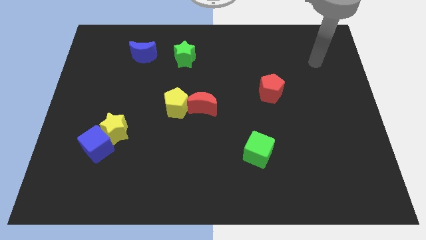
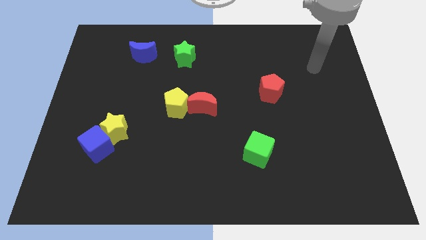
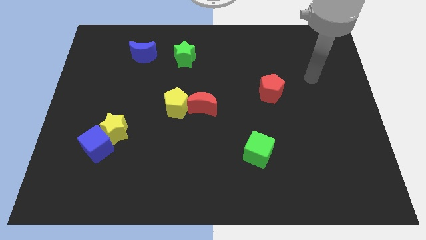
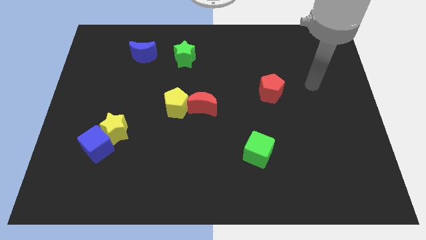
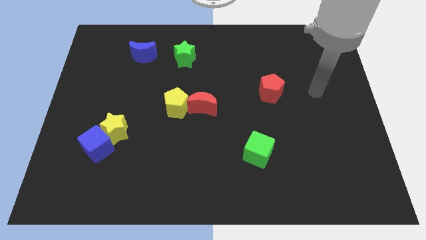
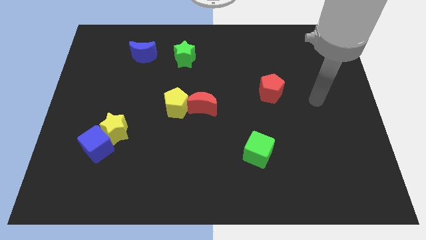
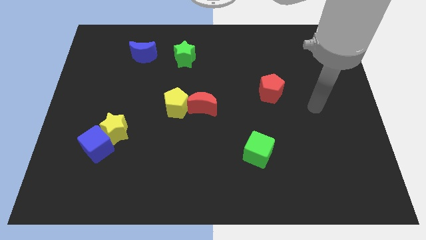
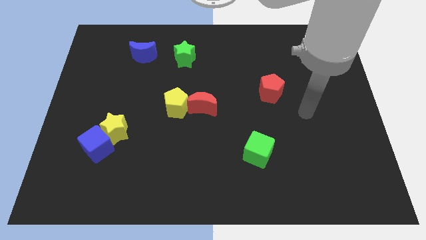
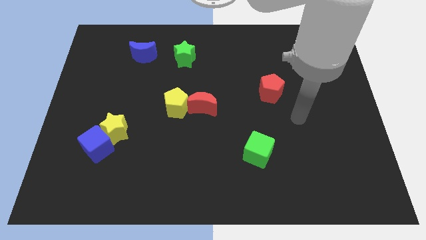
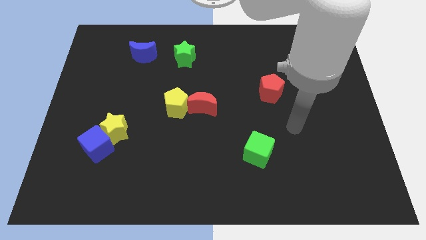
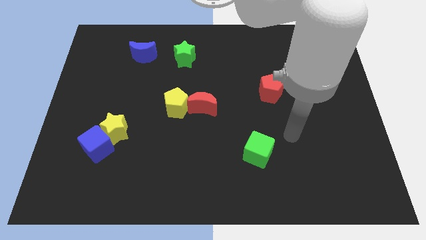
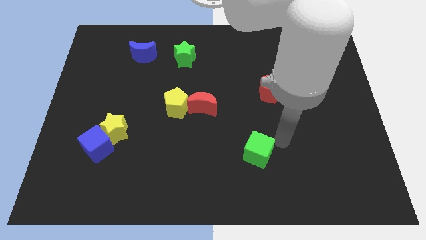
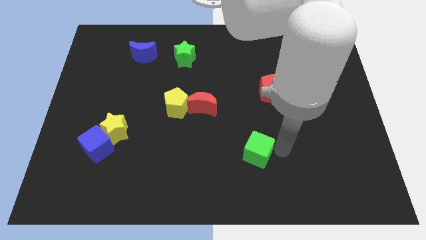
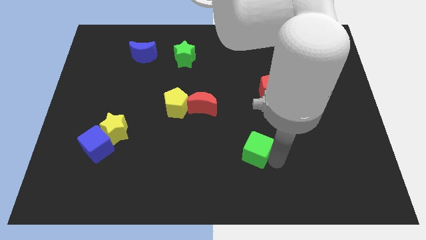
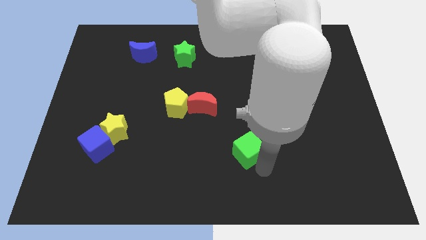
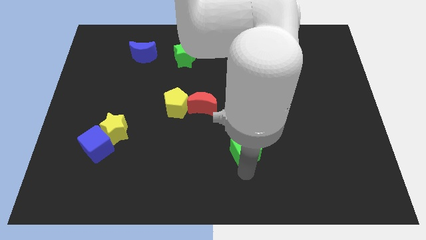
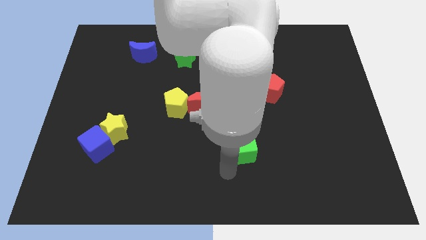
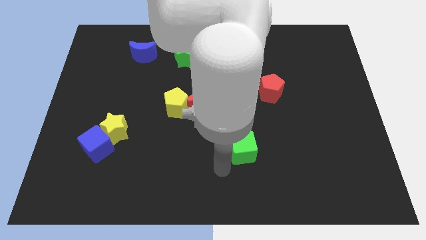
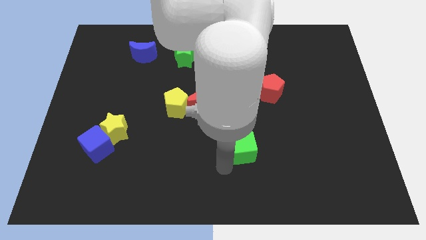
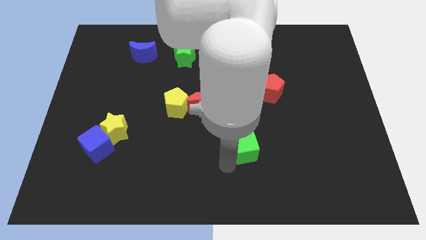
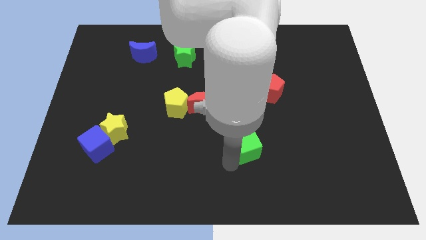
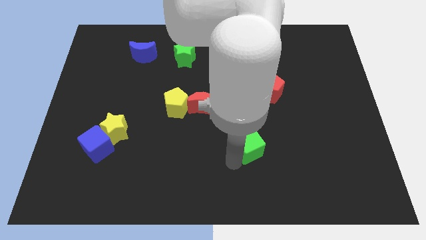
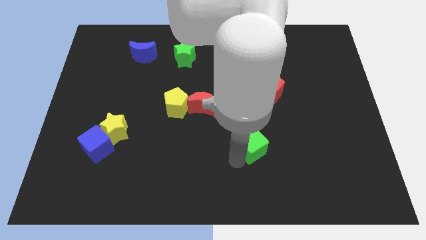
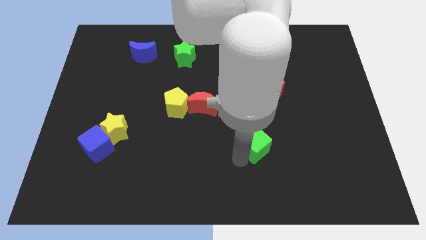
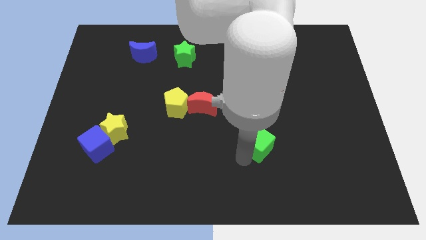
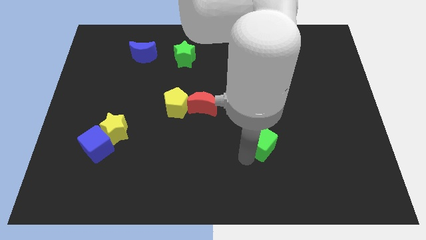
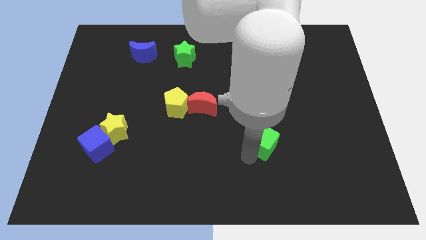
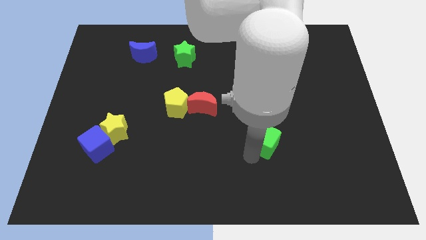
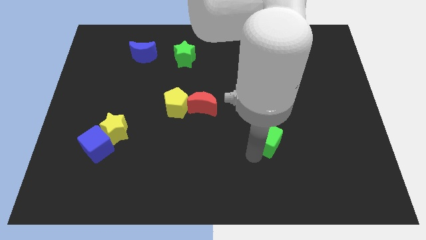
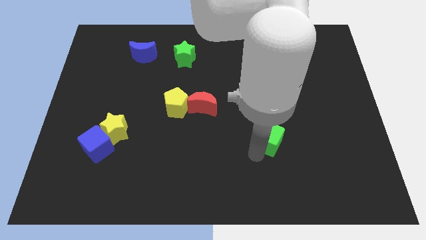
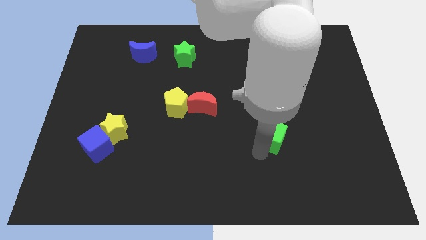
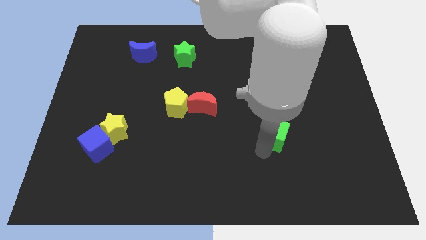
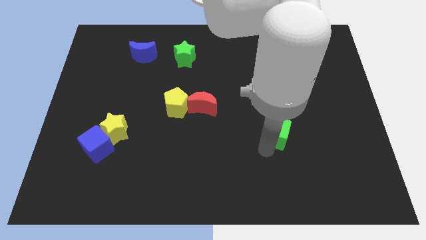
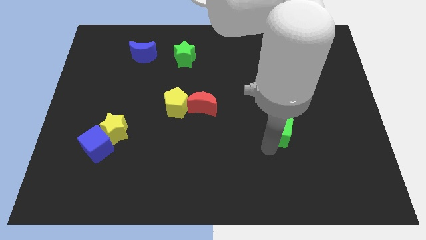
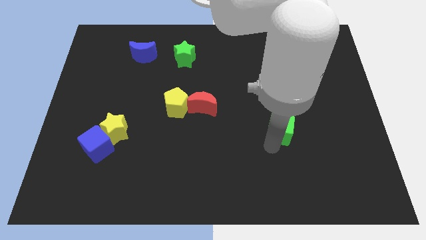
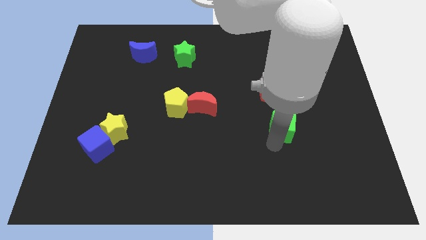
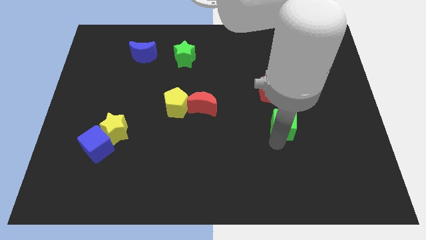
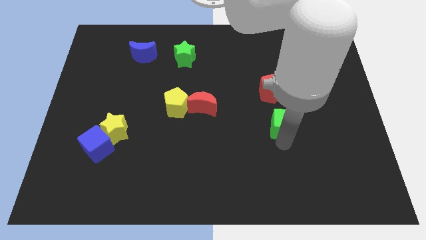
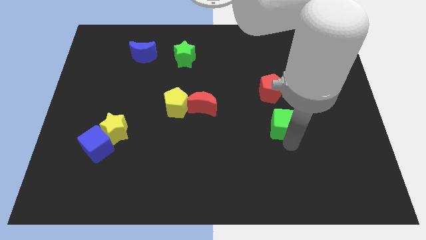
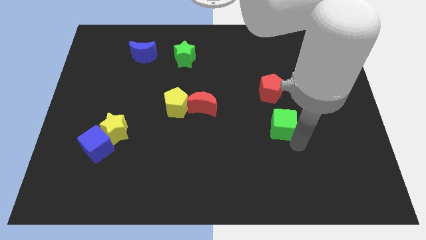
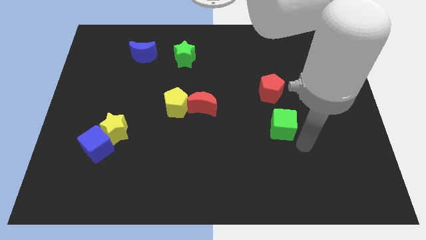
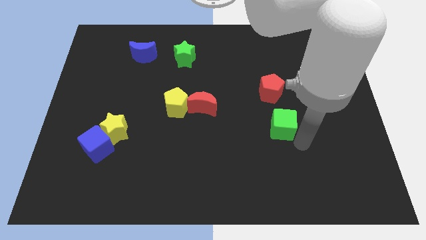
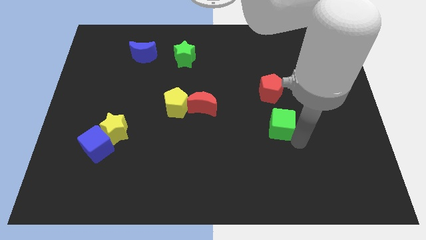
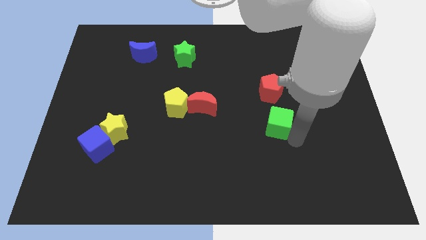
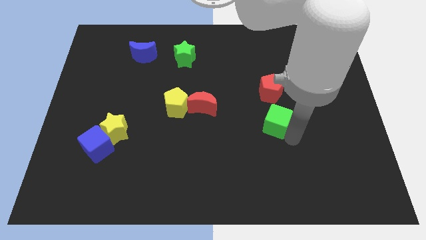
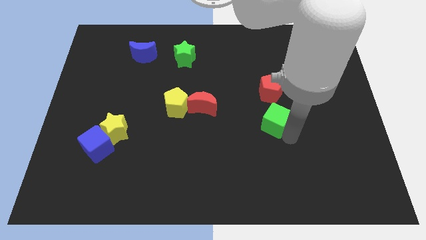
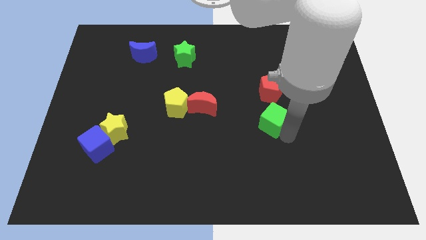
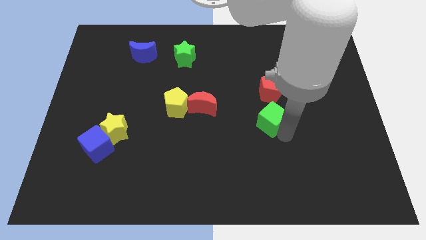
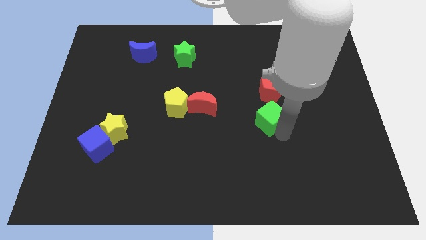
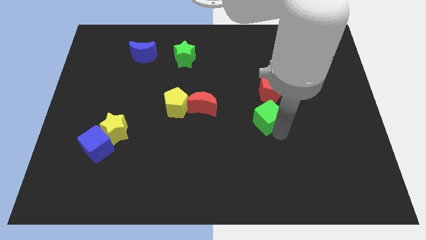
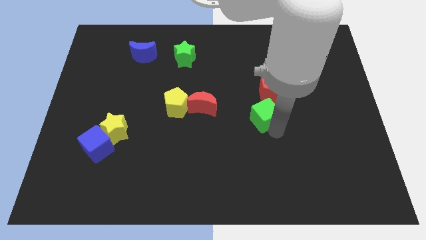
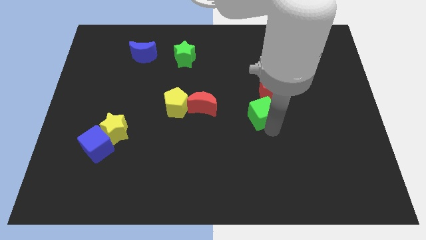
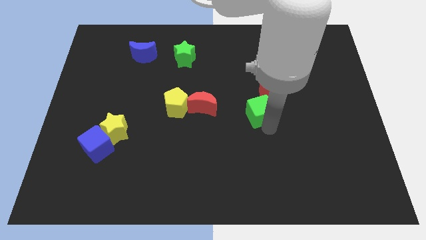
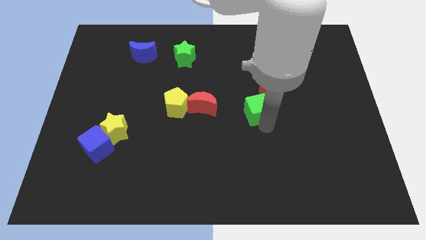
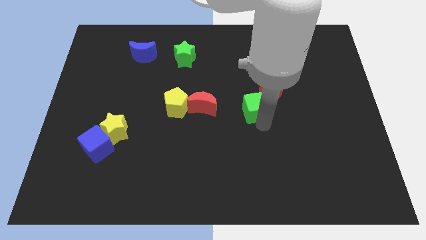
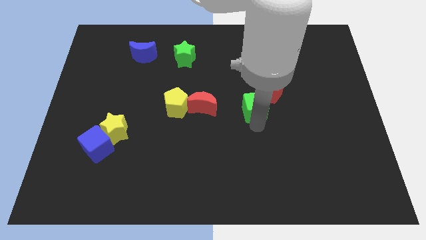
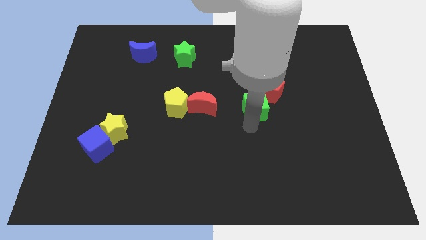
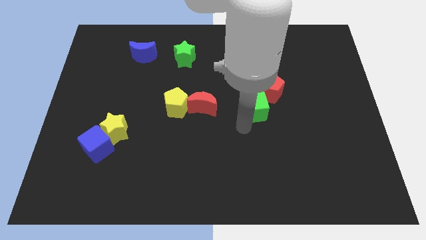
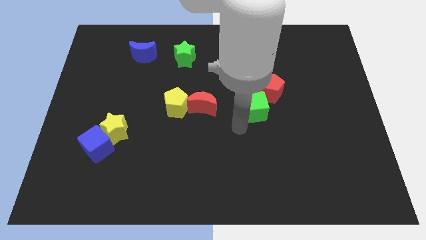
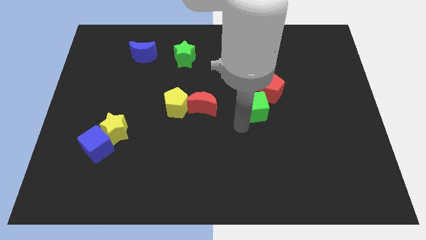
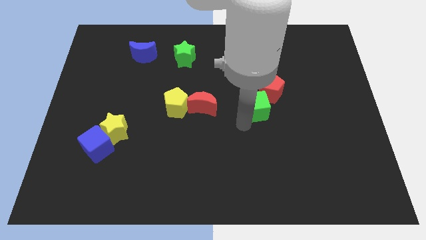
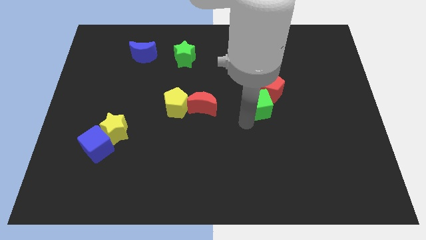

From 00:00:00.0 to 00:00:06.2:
slide the green cube towards the red pentagon

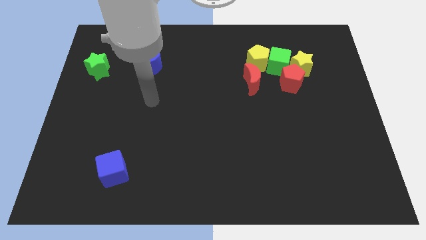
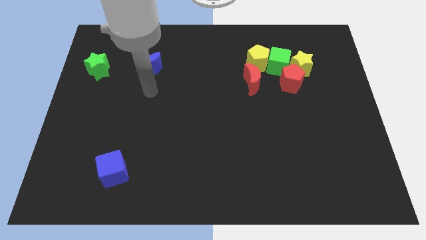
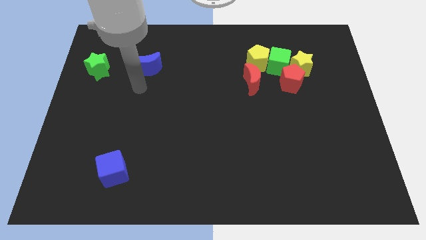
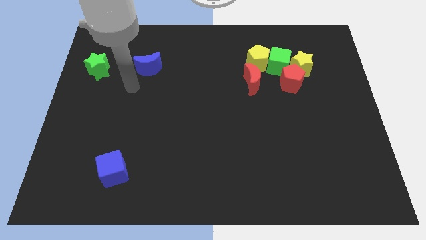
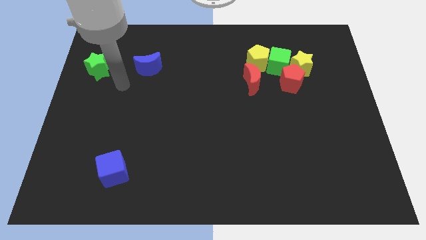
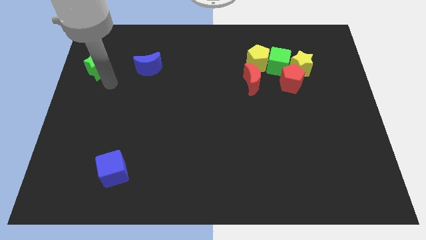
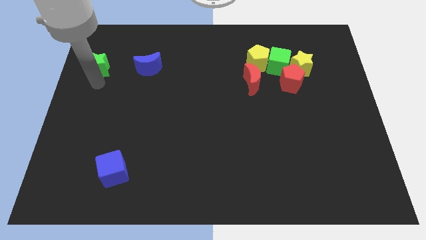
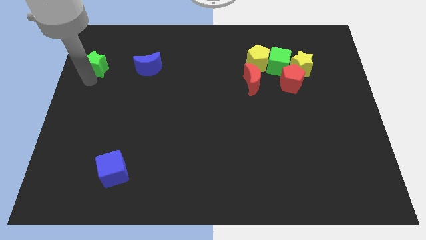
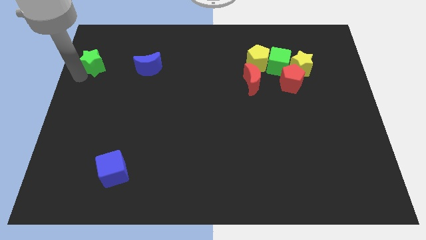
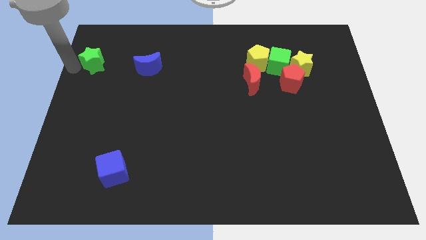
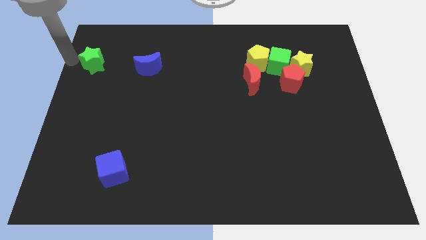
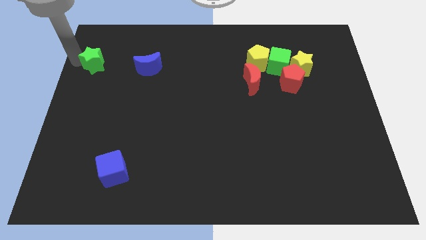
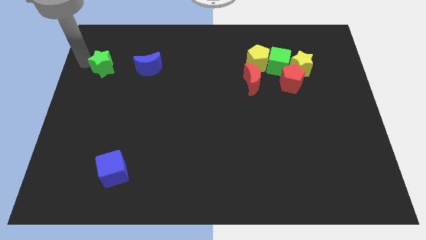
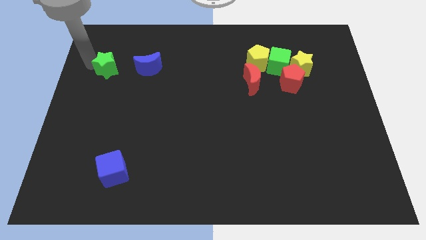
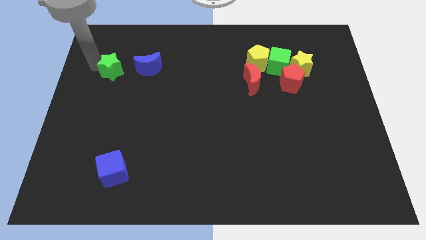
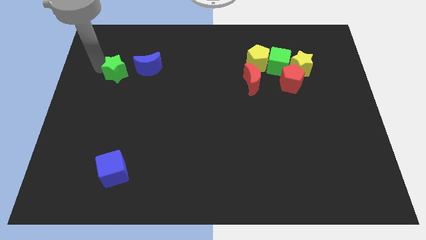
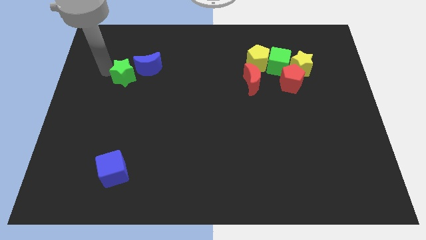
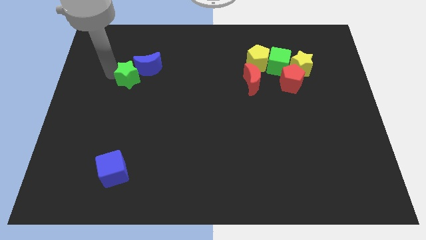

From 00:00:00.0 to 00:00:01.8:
put the green star next to the blue moon
